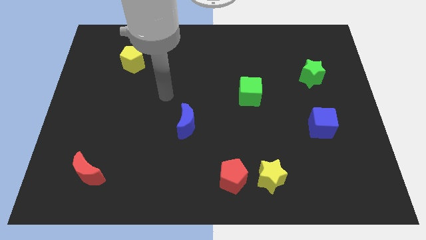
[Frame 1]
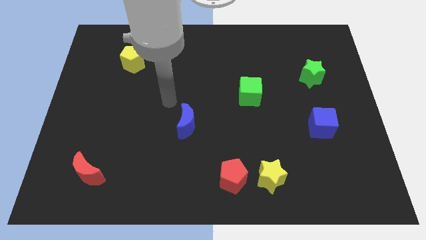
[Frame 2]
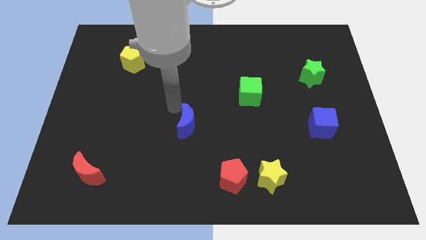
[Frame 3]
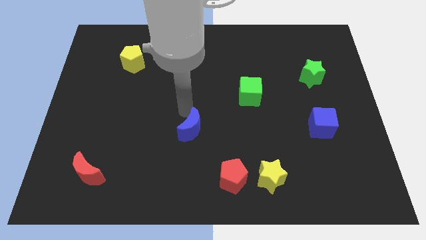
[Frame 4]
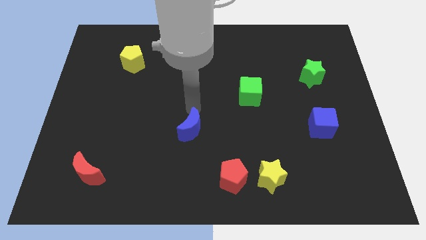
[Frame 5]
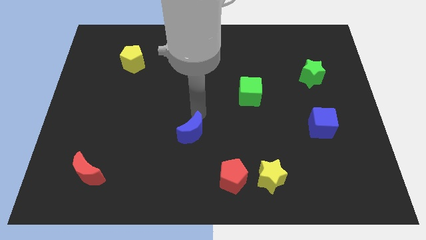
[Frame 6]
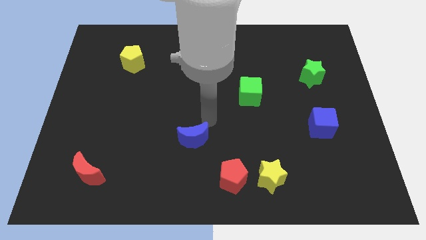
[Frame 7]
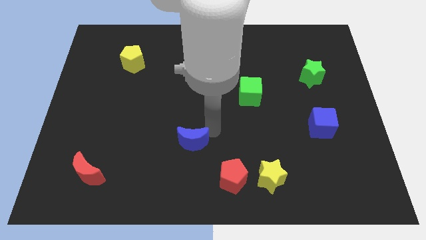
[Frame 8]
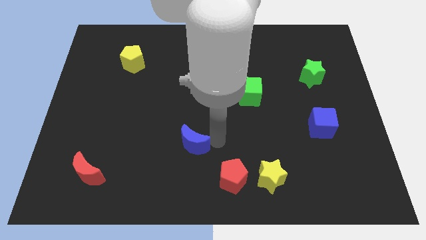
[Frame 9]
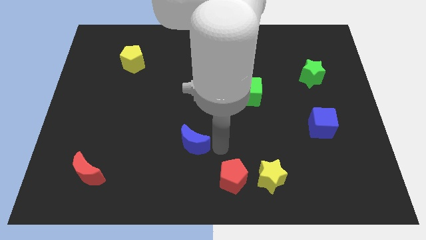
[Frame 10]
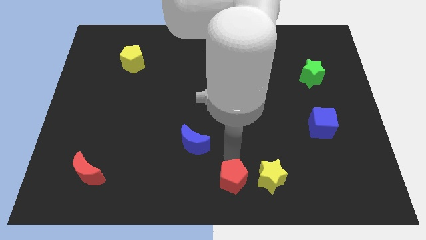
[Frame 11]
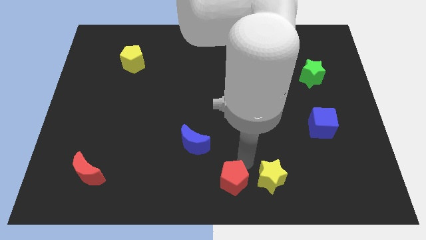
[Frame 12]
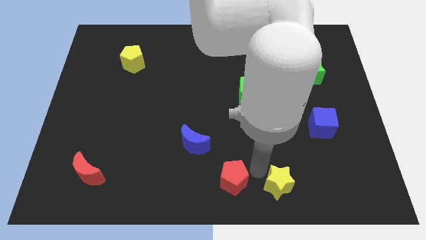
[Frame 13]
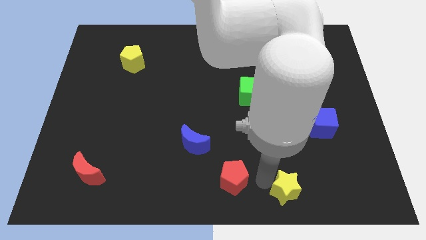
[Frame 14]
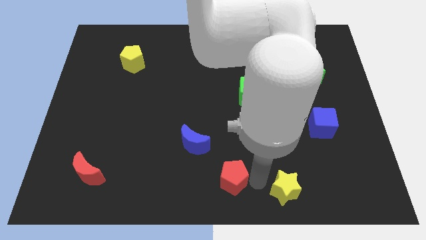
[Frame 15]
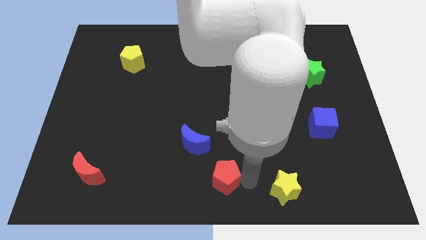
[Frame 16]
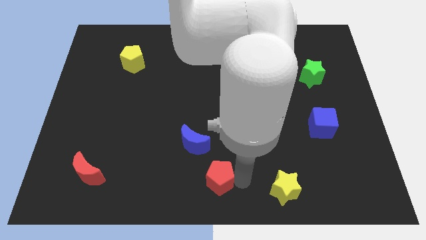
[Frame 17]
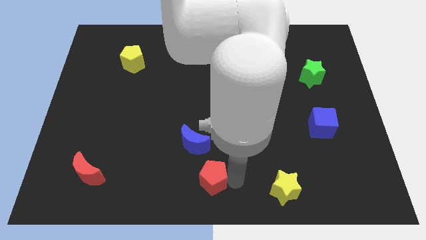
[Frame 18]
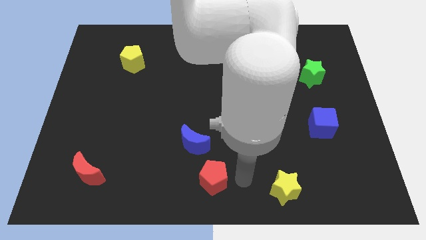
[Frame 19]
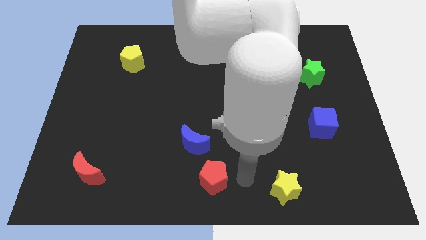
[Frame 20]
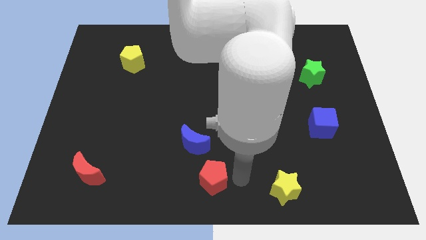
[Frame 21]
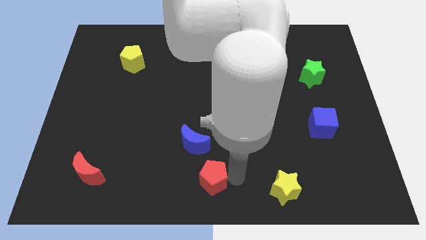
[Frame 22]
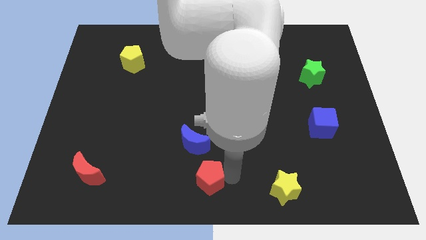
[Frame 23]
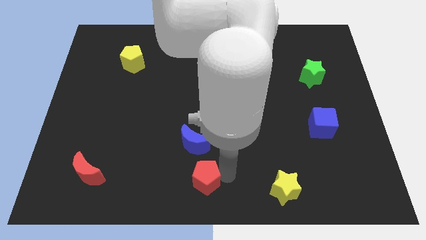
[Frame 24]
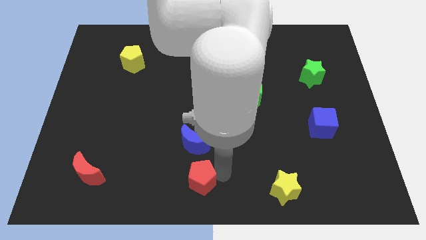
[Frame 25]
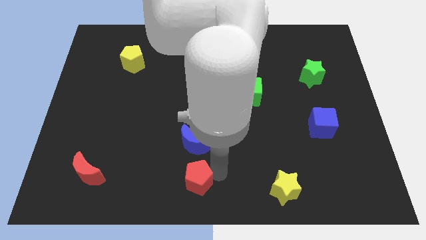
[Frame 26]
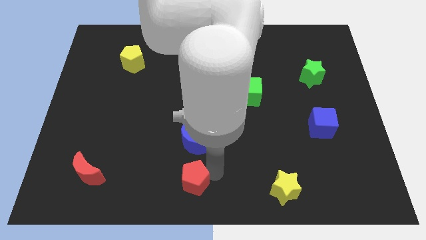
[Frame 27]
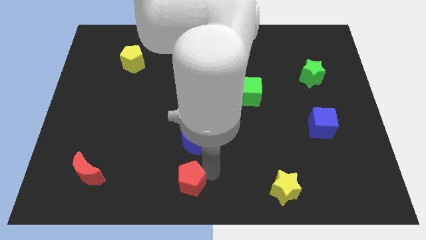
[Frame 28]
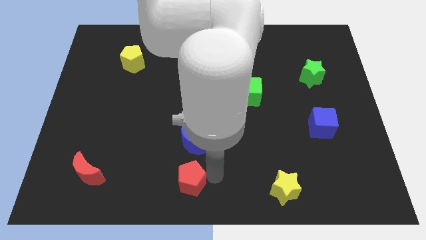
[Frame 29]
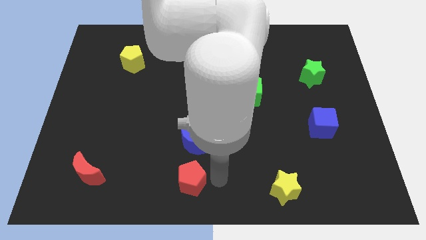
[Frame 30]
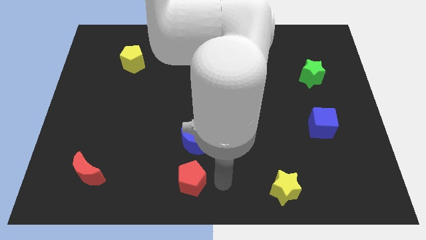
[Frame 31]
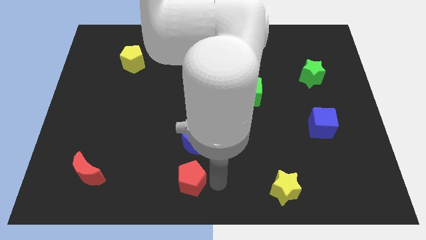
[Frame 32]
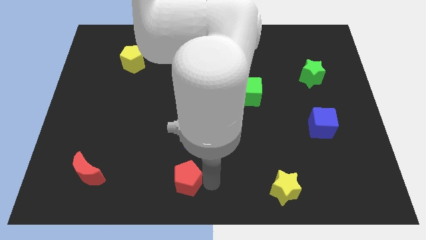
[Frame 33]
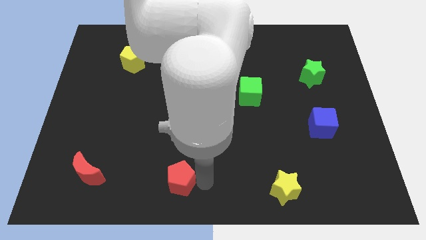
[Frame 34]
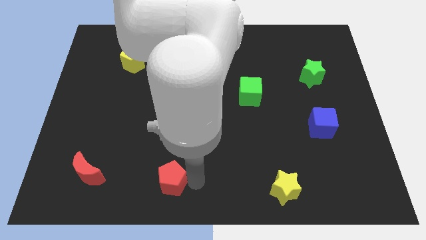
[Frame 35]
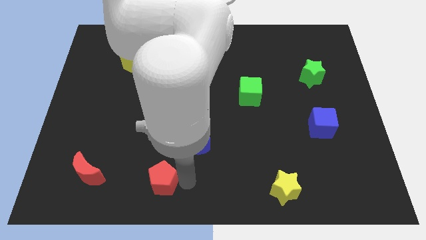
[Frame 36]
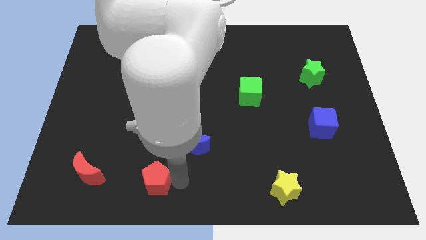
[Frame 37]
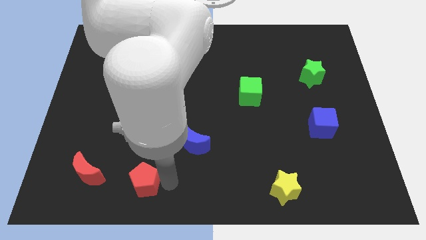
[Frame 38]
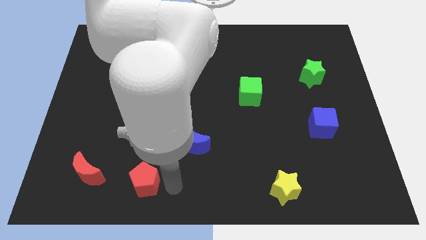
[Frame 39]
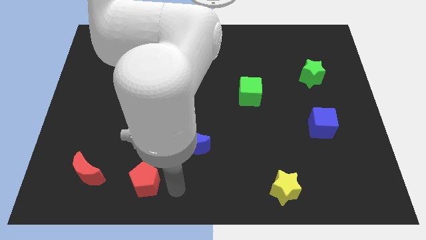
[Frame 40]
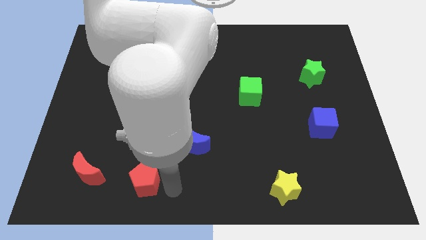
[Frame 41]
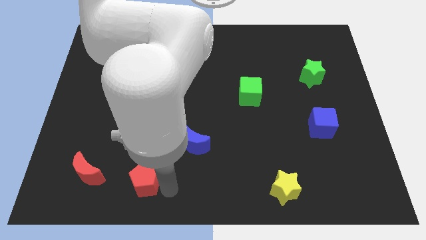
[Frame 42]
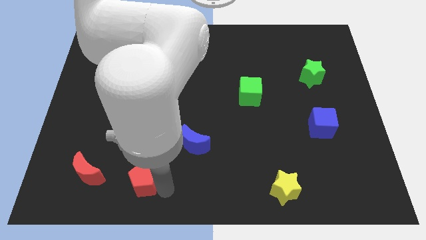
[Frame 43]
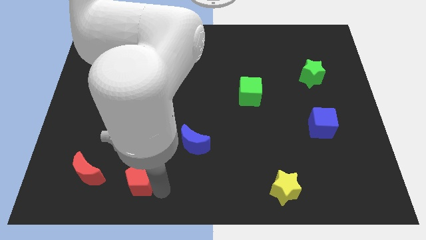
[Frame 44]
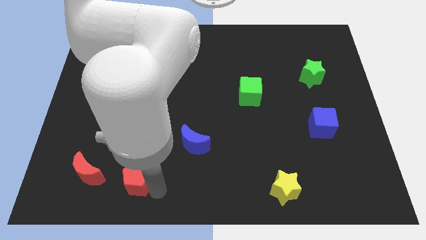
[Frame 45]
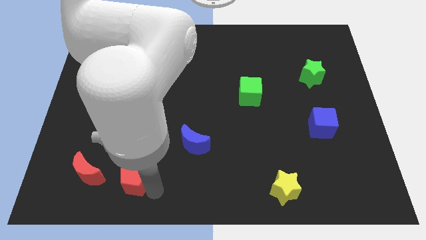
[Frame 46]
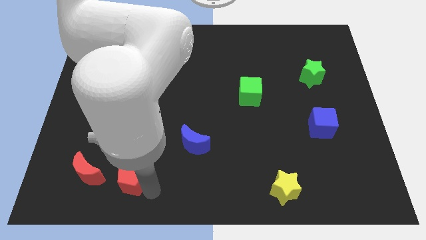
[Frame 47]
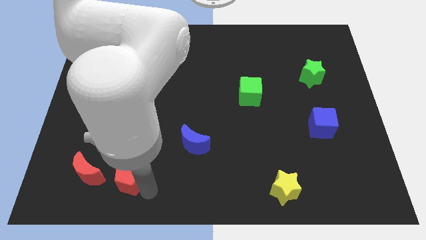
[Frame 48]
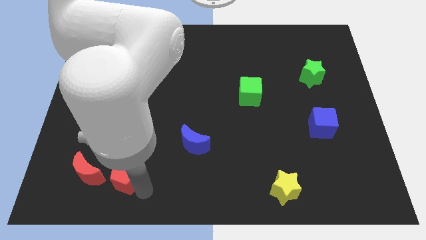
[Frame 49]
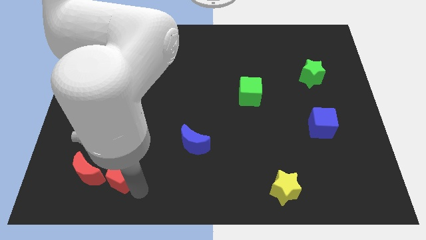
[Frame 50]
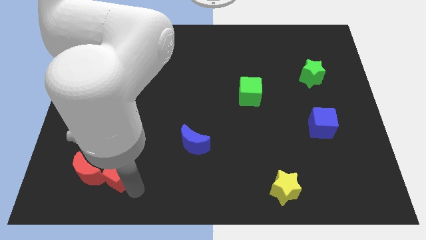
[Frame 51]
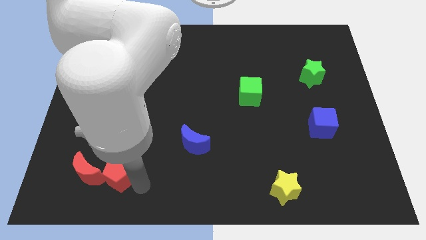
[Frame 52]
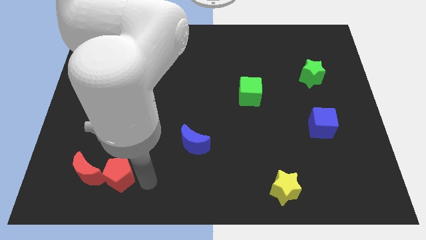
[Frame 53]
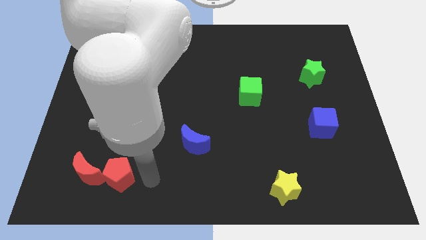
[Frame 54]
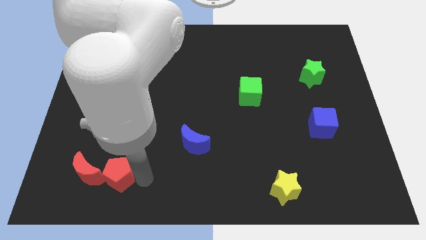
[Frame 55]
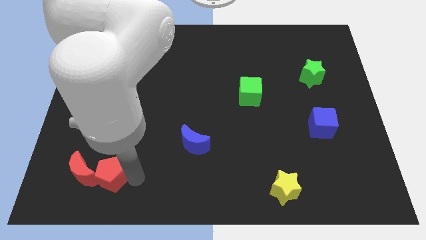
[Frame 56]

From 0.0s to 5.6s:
move the red pentagon next to the red moon

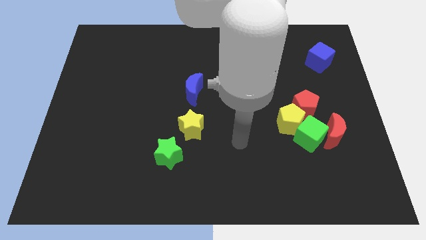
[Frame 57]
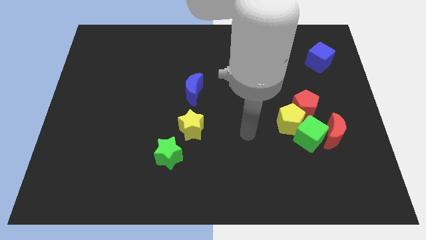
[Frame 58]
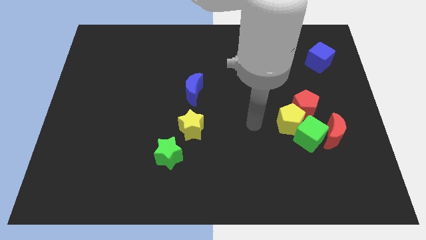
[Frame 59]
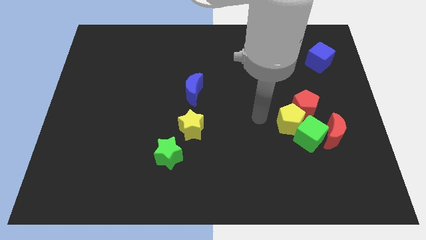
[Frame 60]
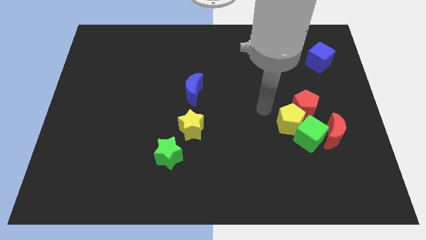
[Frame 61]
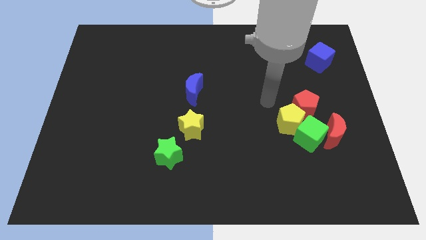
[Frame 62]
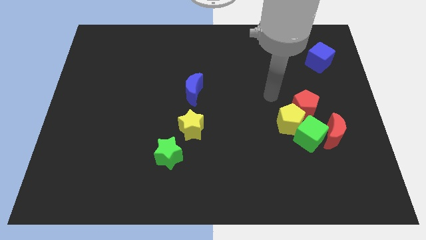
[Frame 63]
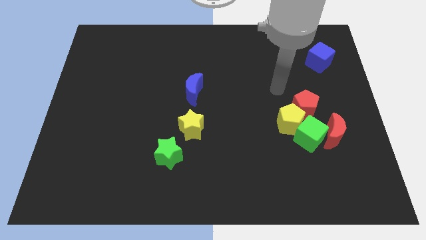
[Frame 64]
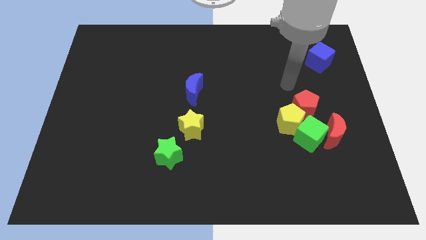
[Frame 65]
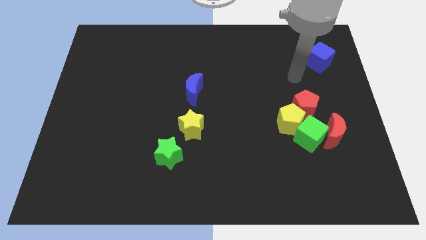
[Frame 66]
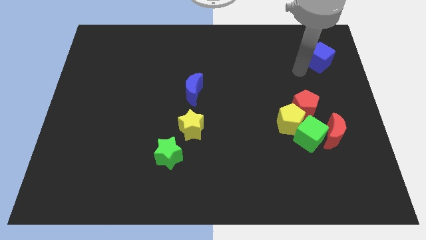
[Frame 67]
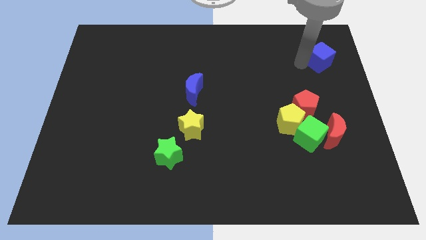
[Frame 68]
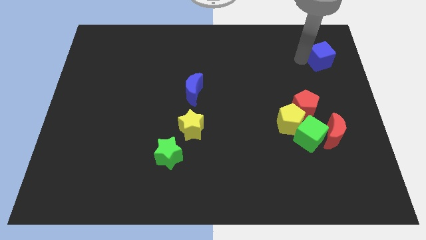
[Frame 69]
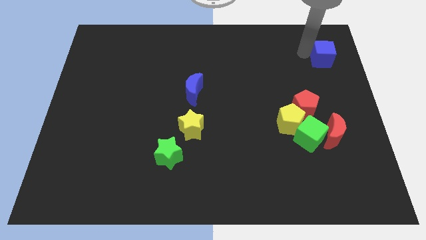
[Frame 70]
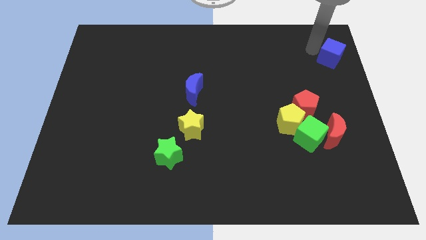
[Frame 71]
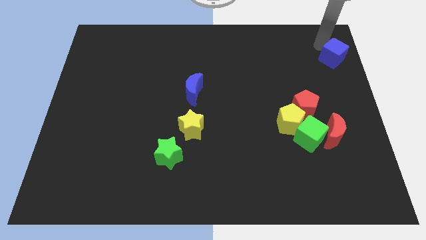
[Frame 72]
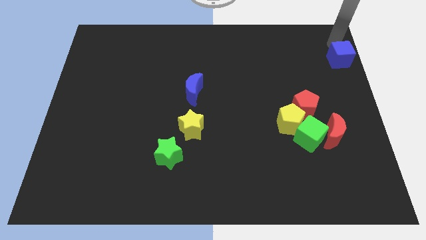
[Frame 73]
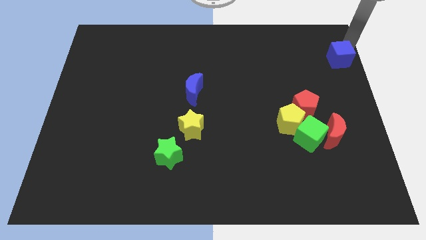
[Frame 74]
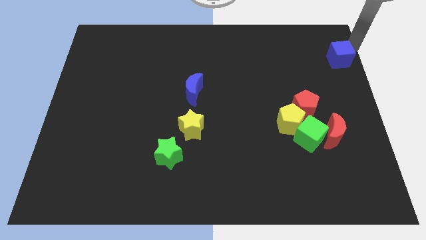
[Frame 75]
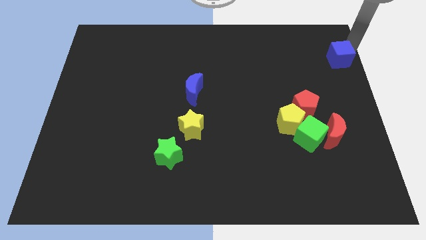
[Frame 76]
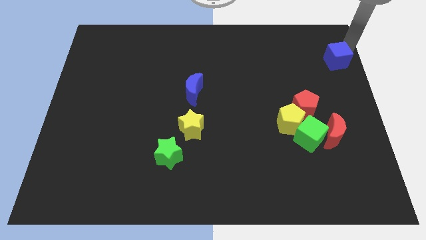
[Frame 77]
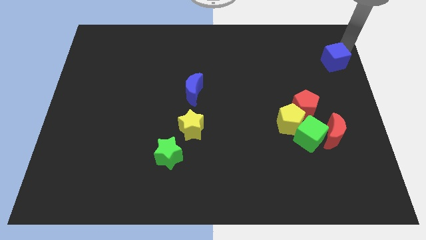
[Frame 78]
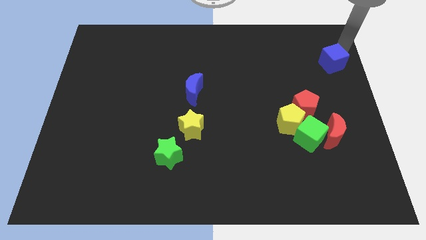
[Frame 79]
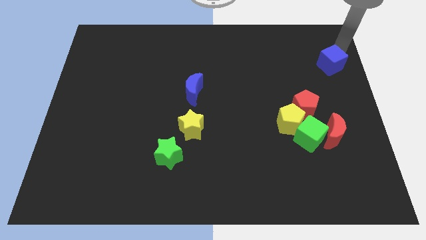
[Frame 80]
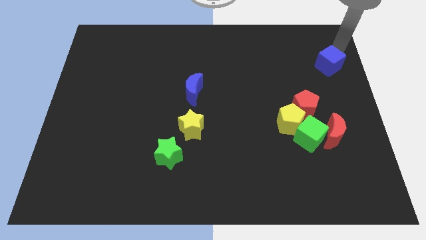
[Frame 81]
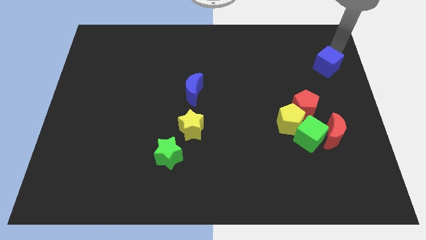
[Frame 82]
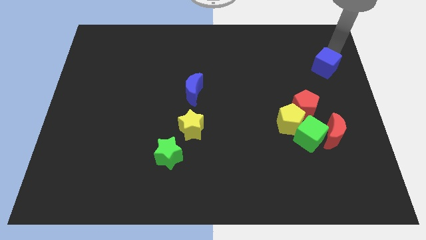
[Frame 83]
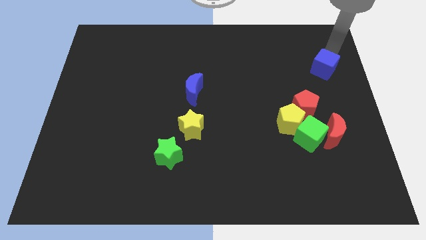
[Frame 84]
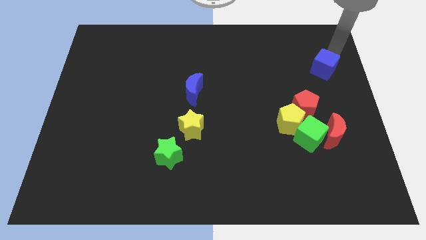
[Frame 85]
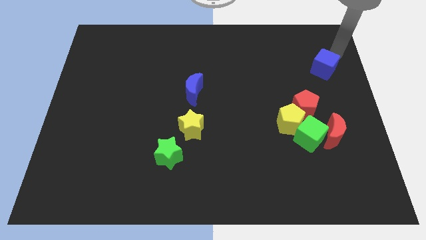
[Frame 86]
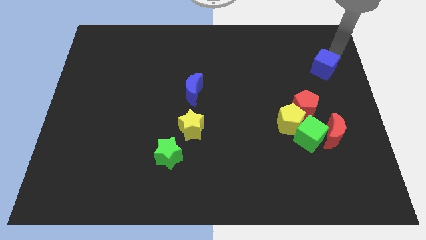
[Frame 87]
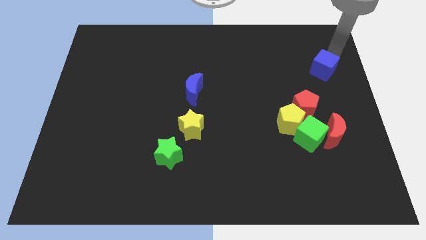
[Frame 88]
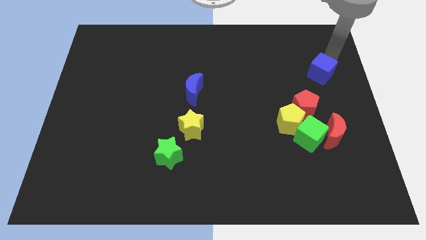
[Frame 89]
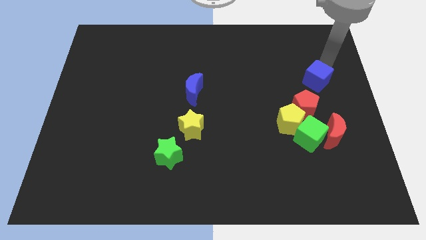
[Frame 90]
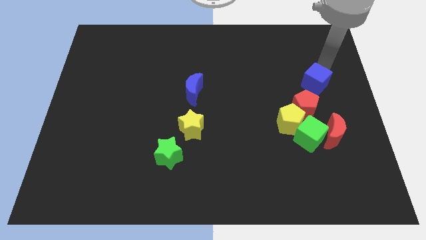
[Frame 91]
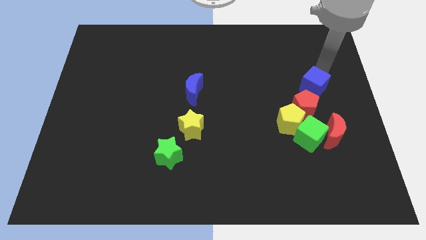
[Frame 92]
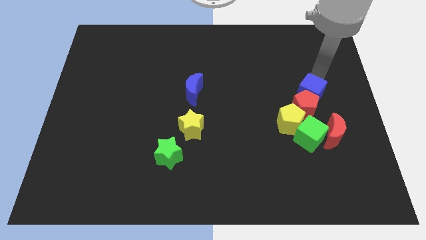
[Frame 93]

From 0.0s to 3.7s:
slide the blue cube to the red pentagon
